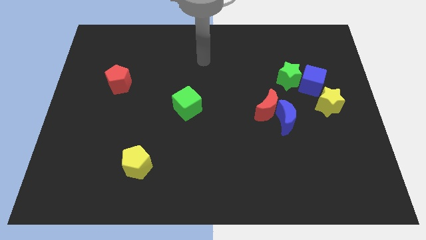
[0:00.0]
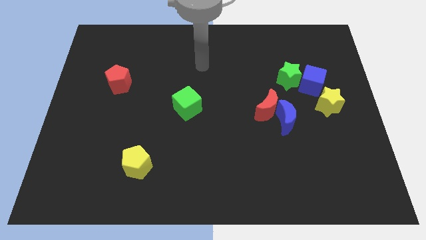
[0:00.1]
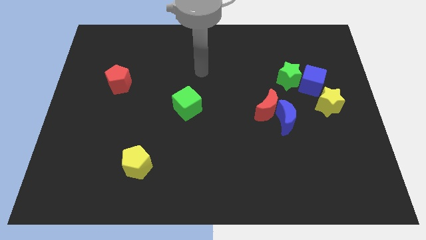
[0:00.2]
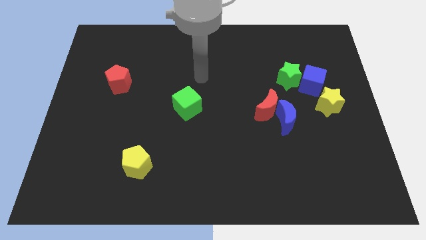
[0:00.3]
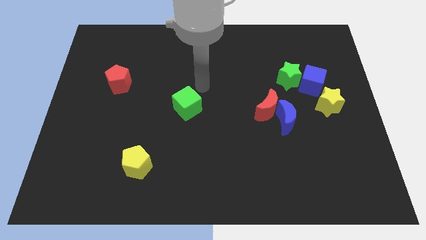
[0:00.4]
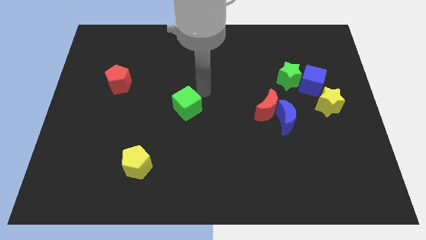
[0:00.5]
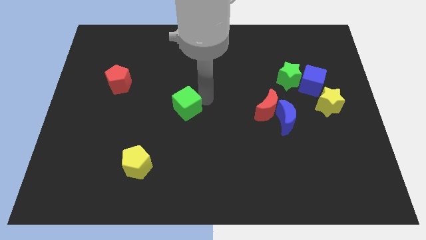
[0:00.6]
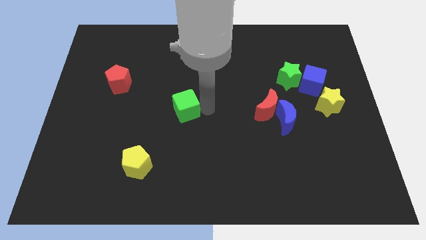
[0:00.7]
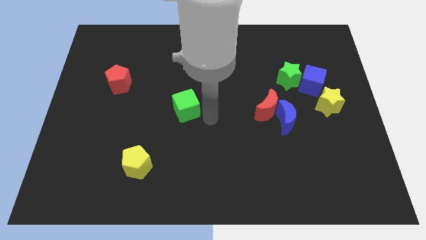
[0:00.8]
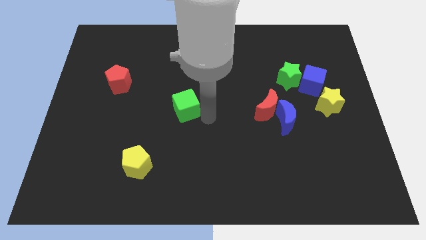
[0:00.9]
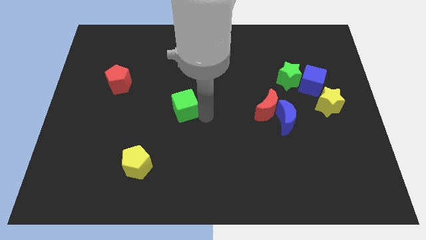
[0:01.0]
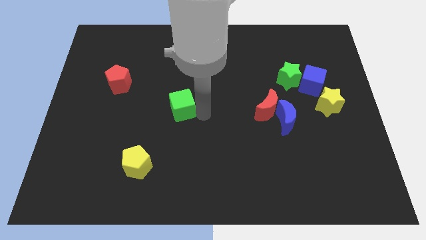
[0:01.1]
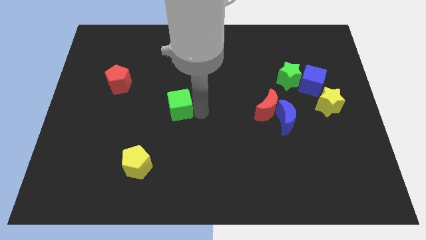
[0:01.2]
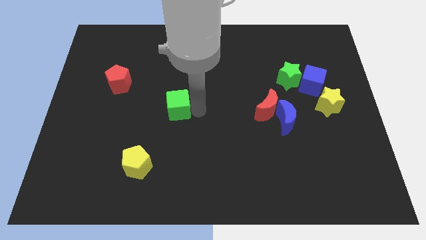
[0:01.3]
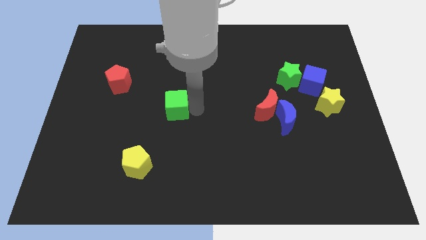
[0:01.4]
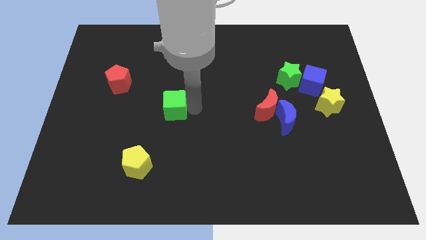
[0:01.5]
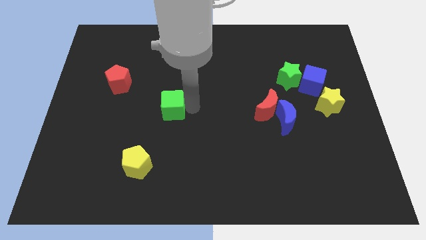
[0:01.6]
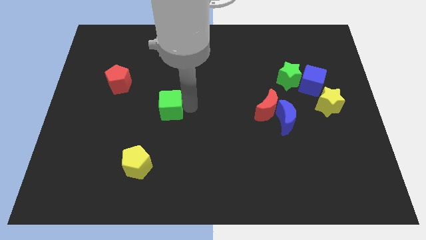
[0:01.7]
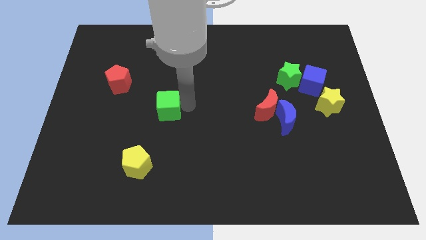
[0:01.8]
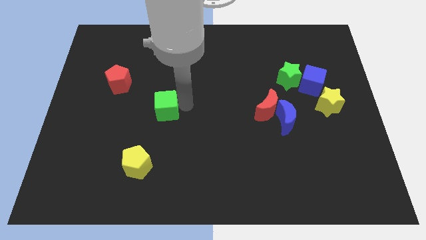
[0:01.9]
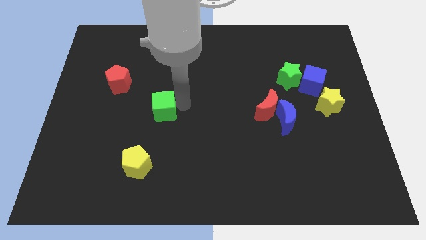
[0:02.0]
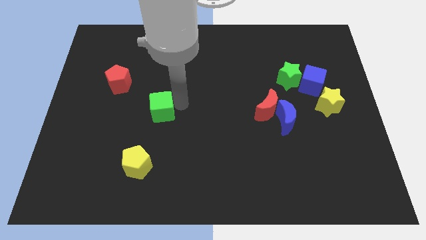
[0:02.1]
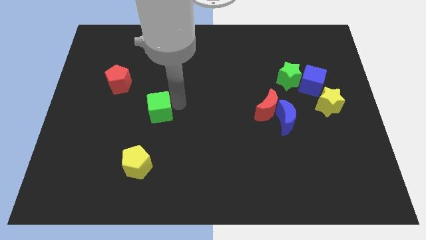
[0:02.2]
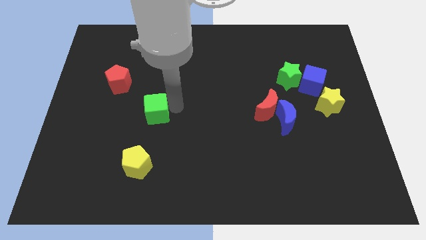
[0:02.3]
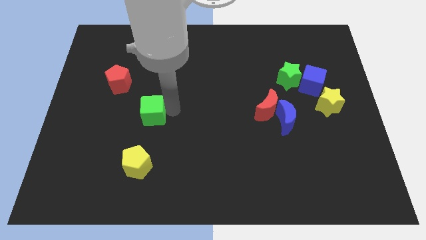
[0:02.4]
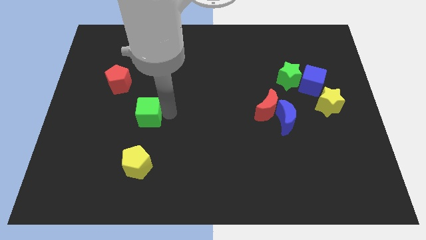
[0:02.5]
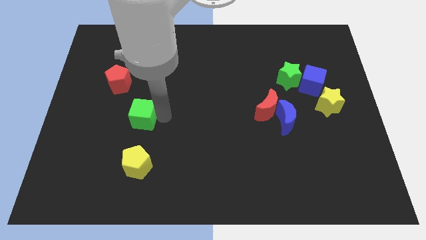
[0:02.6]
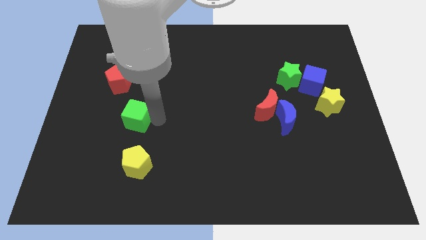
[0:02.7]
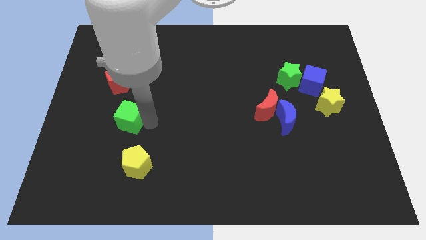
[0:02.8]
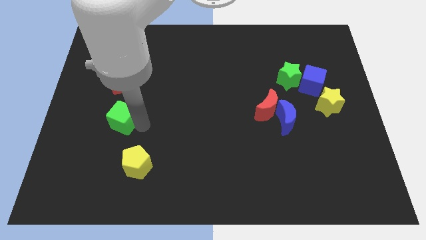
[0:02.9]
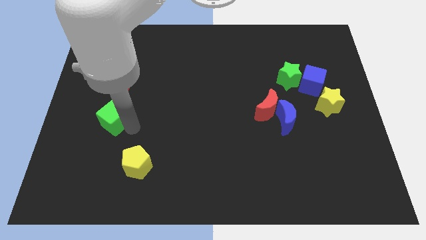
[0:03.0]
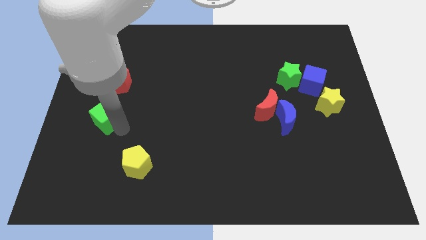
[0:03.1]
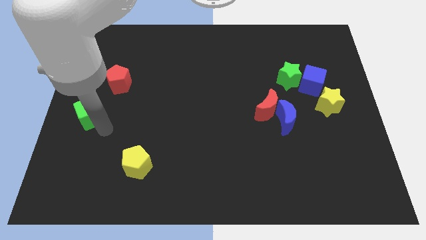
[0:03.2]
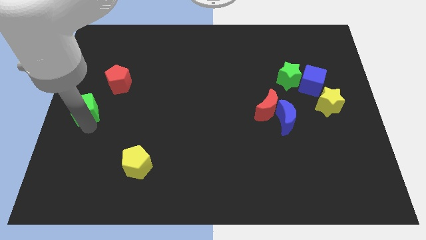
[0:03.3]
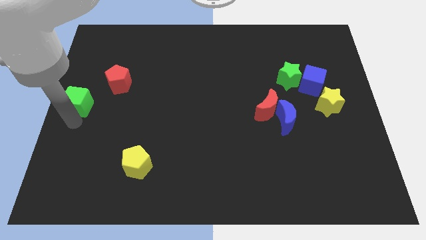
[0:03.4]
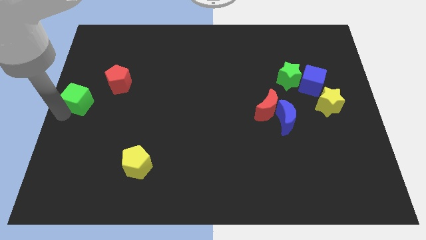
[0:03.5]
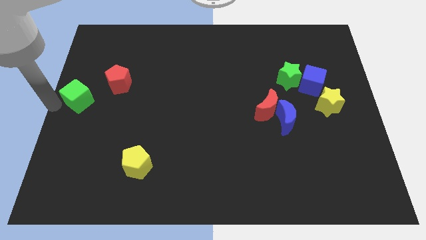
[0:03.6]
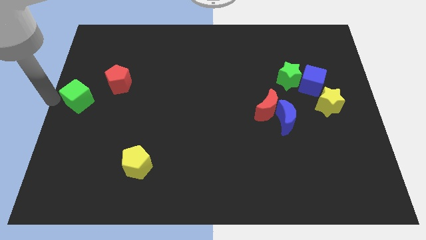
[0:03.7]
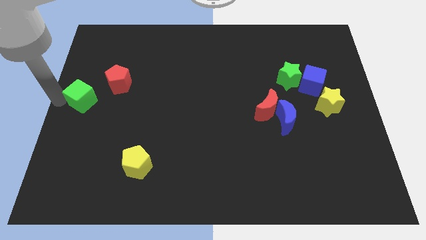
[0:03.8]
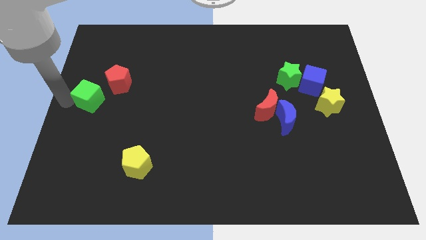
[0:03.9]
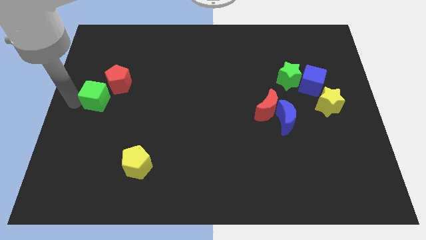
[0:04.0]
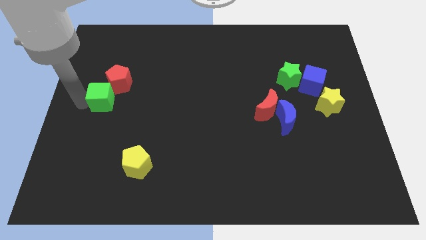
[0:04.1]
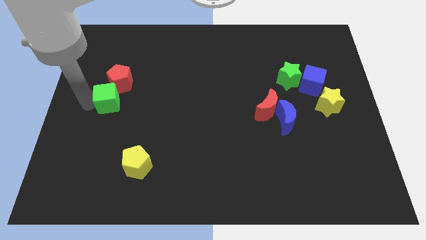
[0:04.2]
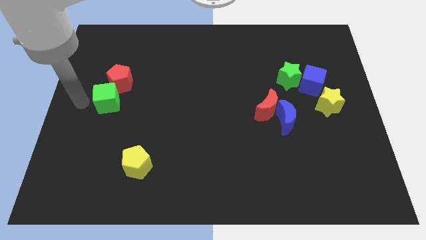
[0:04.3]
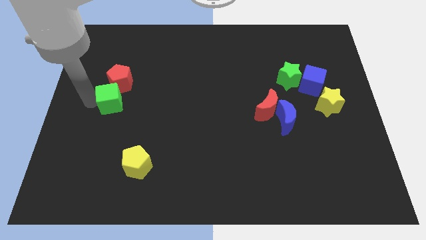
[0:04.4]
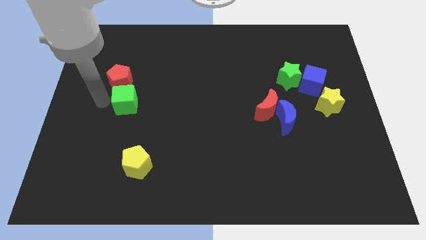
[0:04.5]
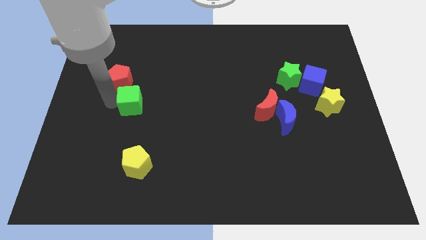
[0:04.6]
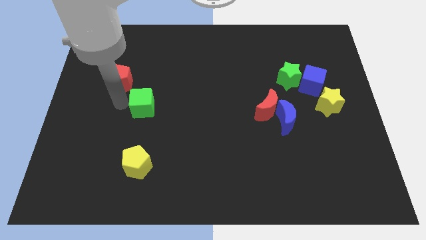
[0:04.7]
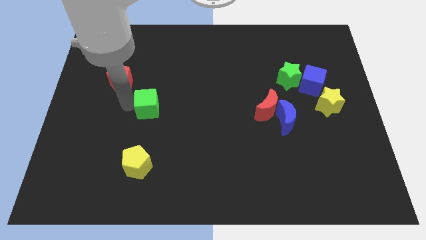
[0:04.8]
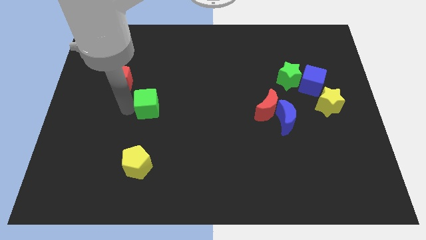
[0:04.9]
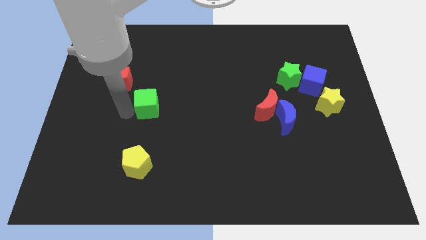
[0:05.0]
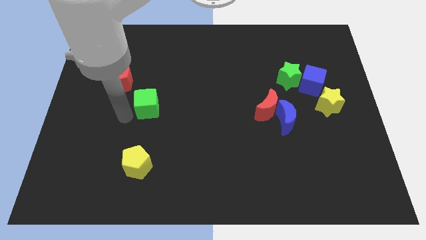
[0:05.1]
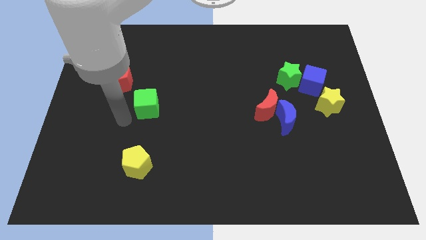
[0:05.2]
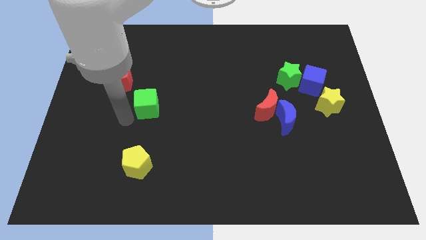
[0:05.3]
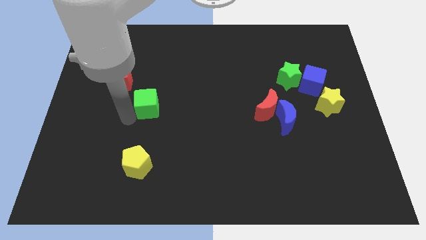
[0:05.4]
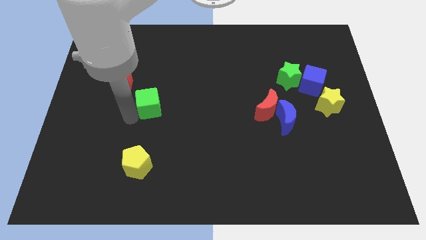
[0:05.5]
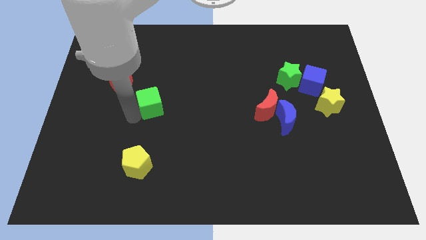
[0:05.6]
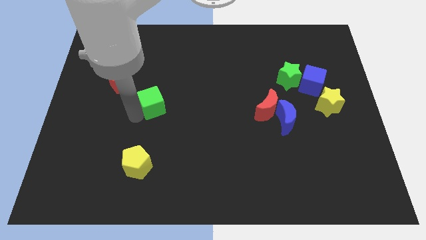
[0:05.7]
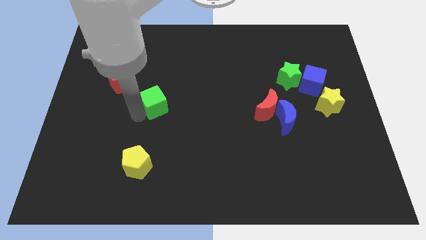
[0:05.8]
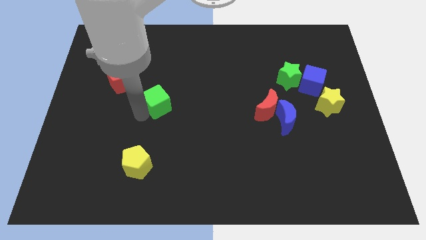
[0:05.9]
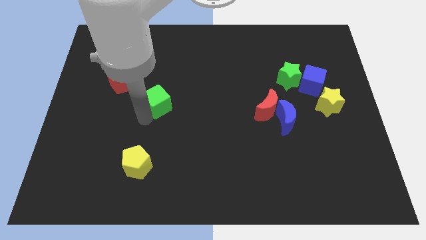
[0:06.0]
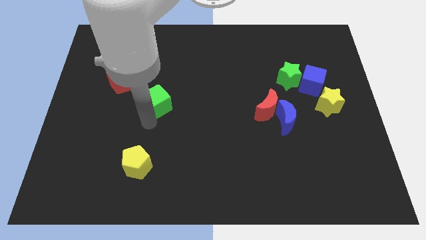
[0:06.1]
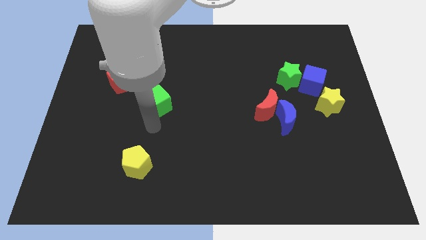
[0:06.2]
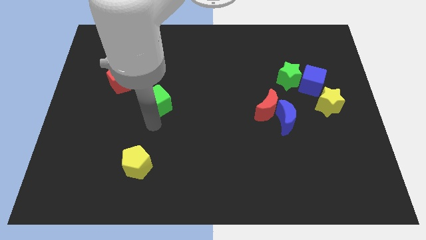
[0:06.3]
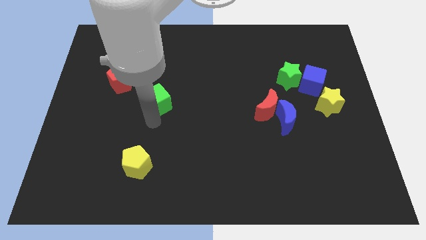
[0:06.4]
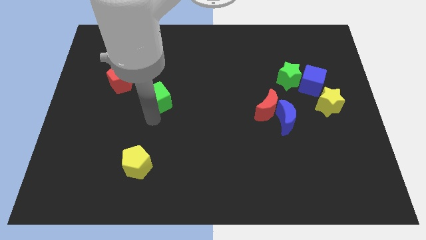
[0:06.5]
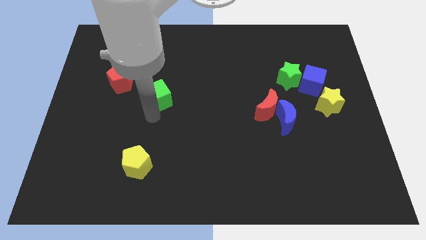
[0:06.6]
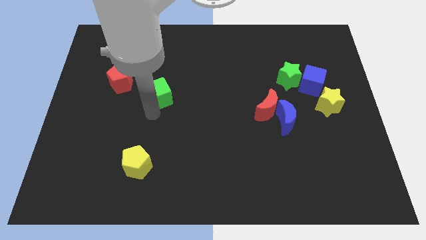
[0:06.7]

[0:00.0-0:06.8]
put the green cube to the right side of the red pentagon
